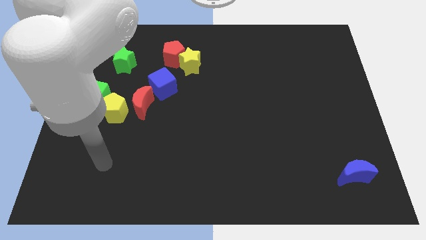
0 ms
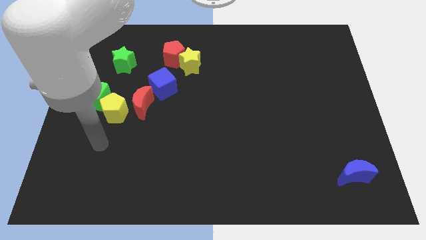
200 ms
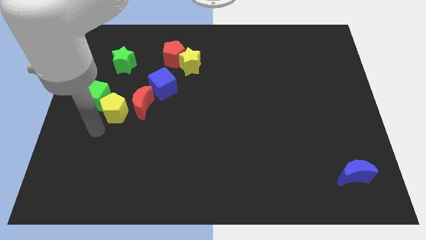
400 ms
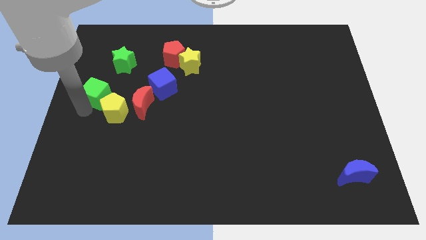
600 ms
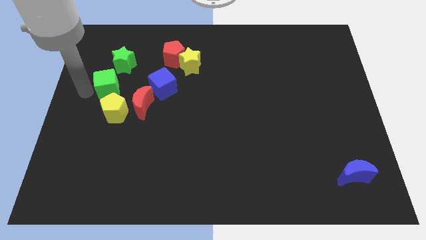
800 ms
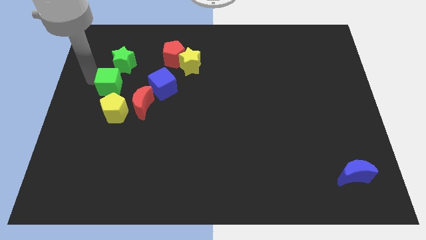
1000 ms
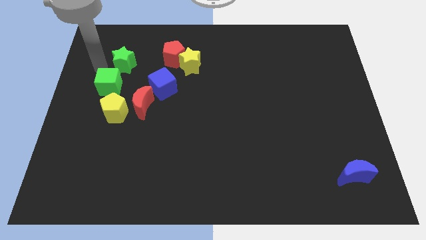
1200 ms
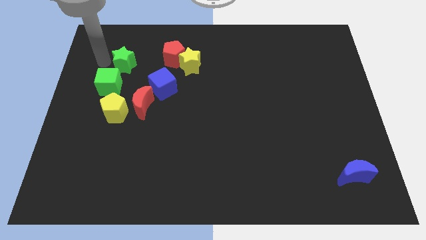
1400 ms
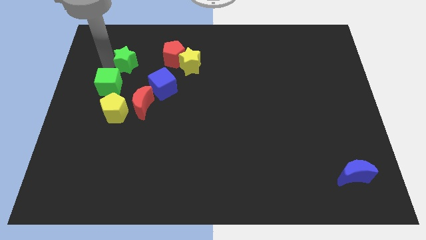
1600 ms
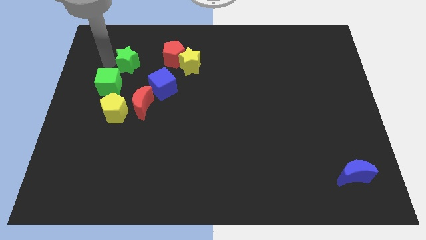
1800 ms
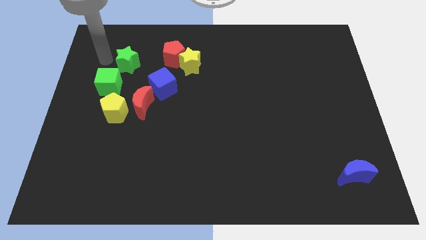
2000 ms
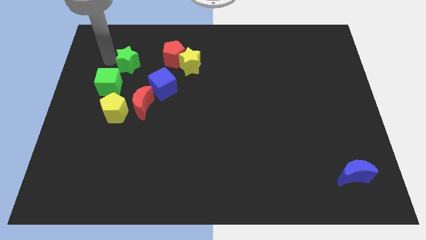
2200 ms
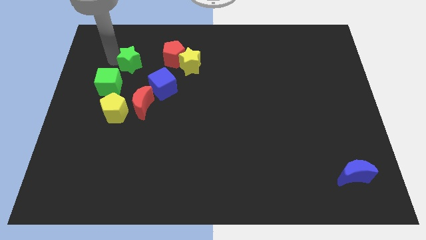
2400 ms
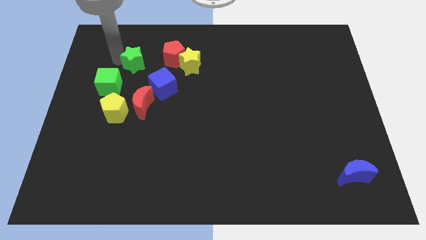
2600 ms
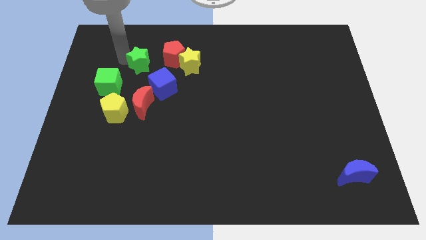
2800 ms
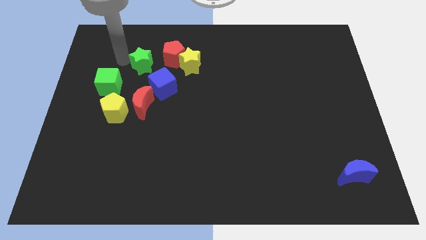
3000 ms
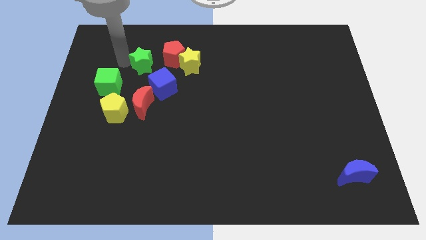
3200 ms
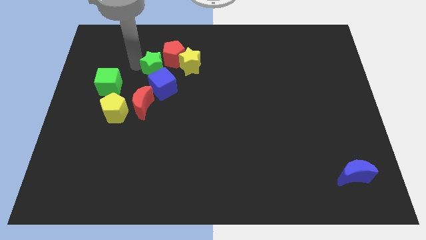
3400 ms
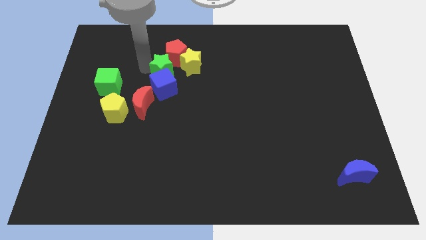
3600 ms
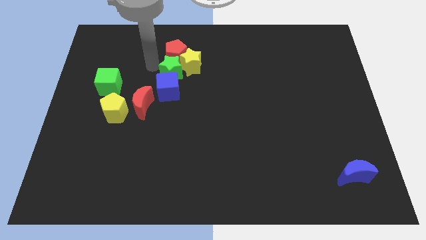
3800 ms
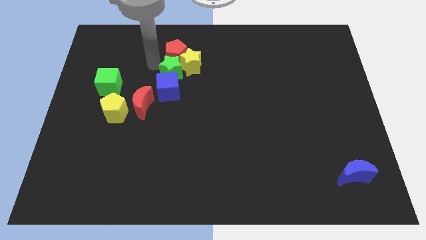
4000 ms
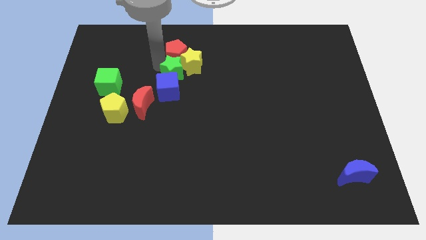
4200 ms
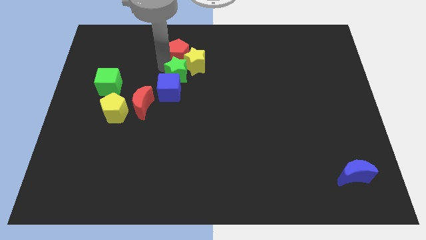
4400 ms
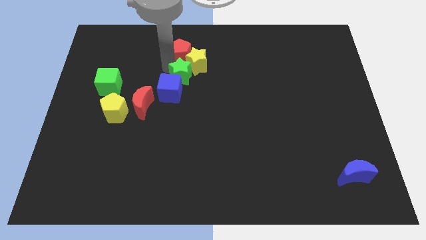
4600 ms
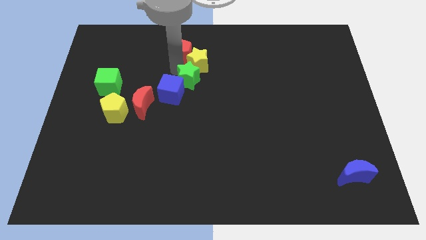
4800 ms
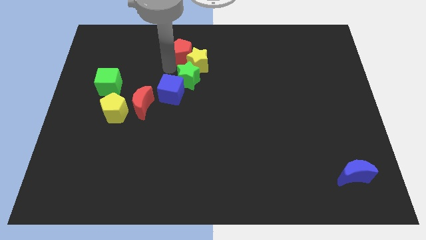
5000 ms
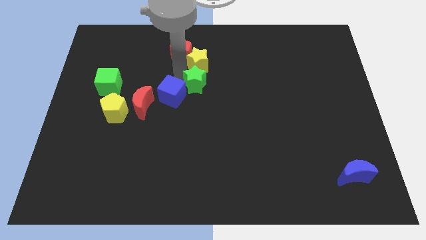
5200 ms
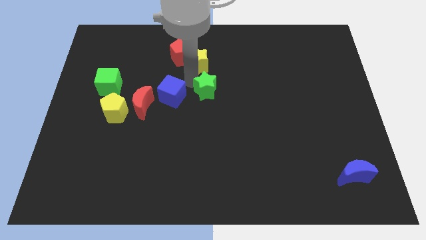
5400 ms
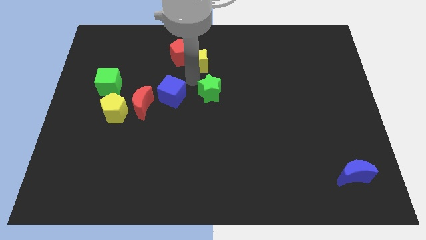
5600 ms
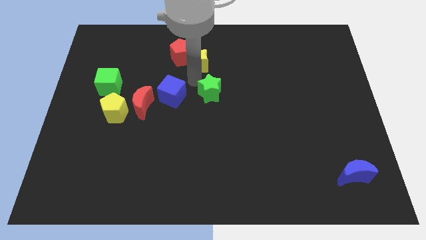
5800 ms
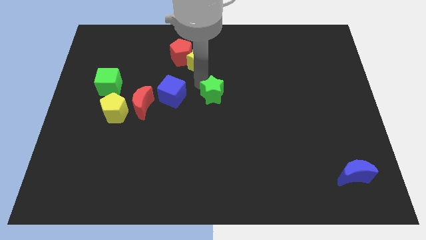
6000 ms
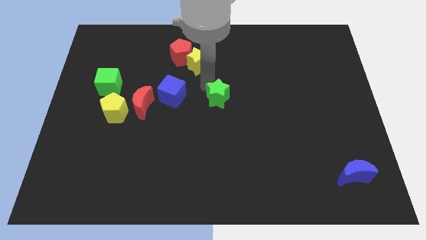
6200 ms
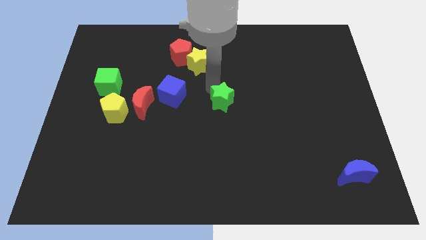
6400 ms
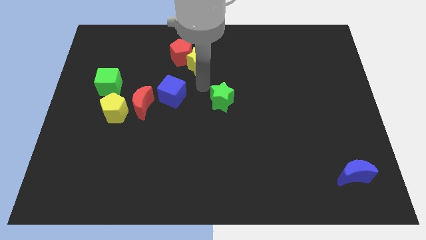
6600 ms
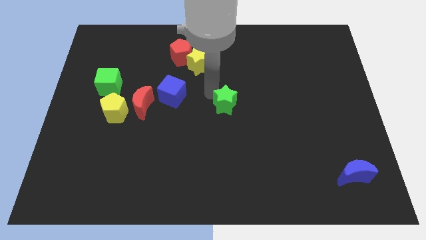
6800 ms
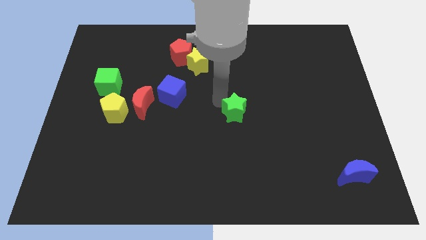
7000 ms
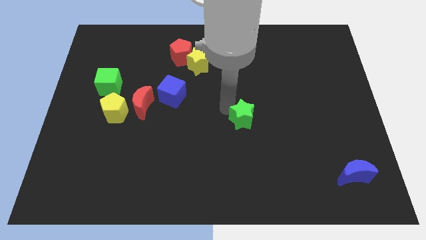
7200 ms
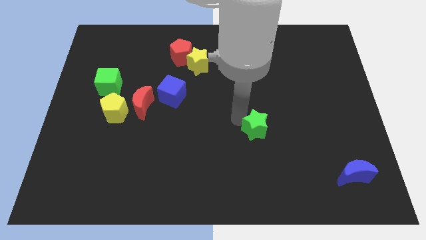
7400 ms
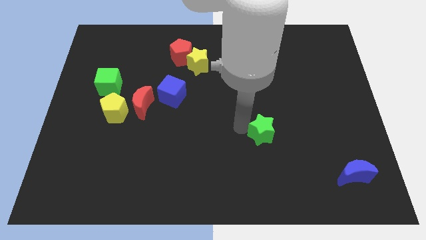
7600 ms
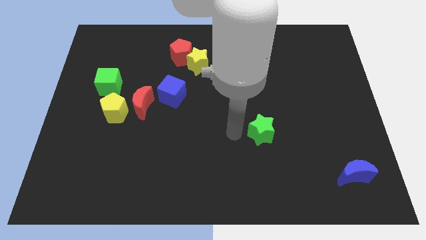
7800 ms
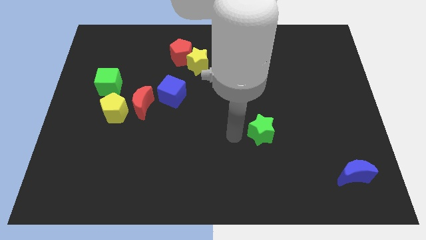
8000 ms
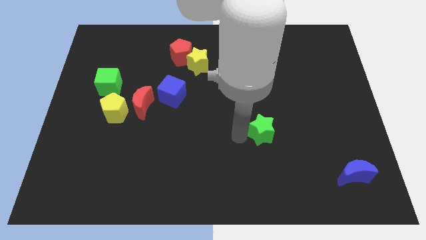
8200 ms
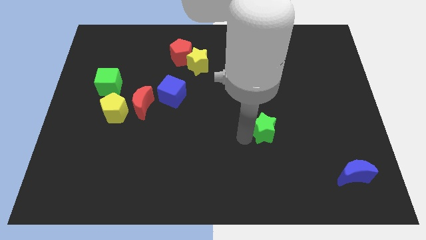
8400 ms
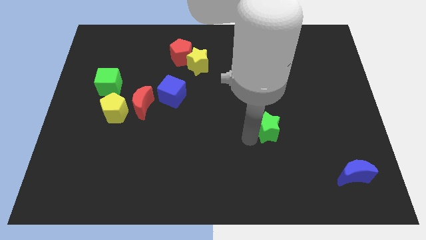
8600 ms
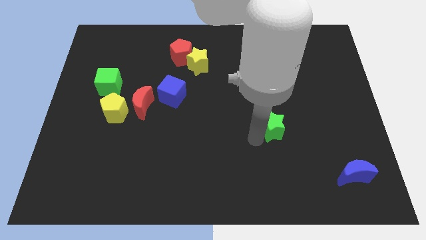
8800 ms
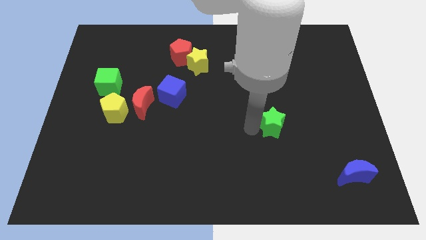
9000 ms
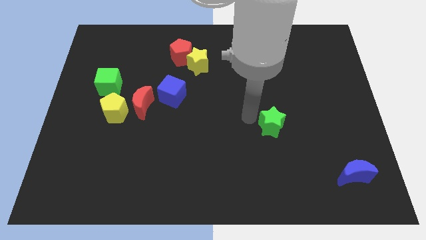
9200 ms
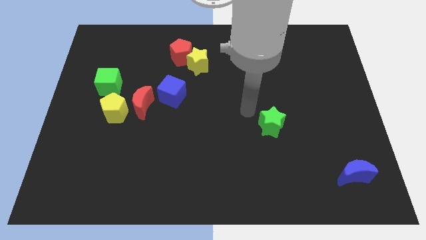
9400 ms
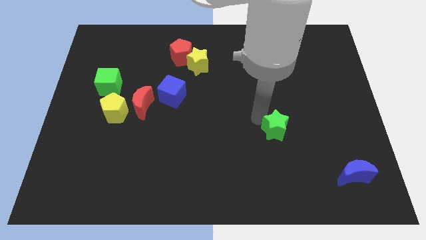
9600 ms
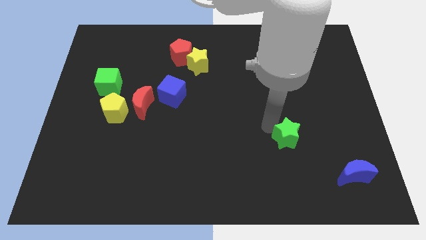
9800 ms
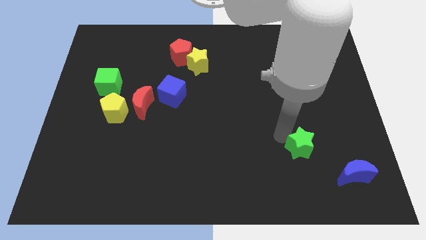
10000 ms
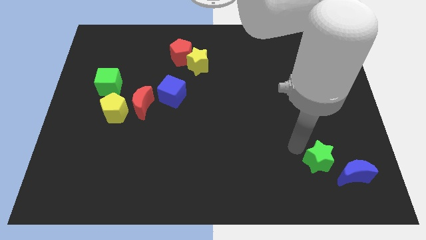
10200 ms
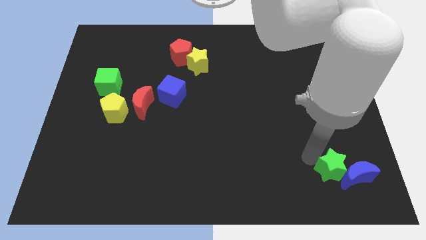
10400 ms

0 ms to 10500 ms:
put the green star close to the blue moon

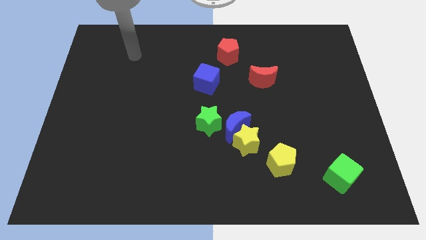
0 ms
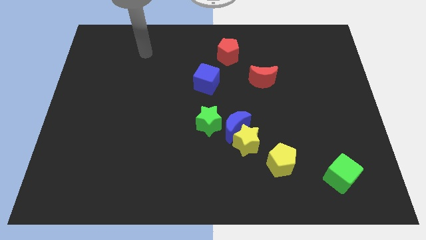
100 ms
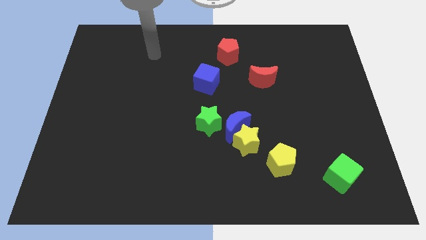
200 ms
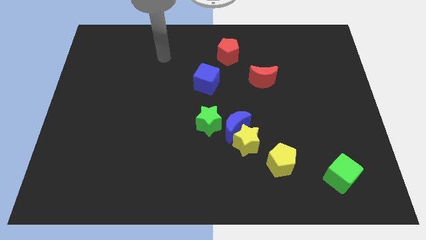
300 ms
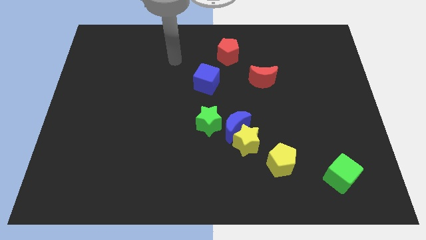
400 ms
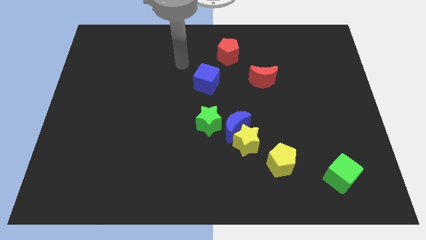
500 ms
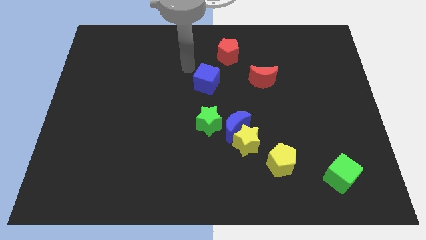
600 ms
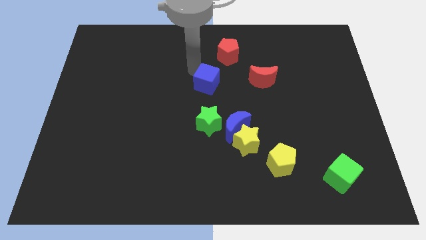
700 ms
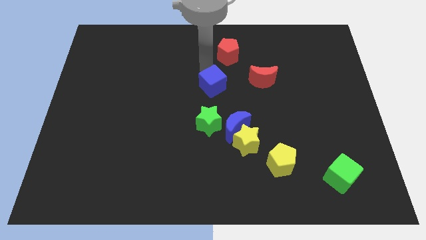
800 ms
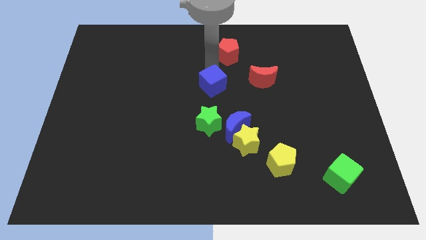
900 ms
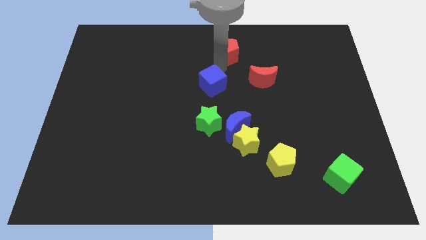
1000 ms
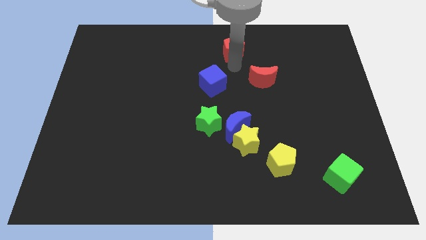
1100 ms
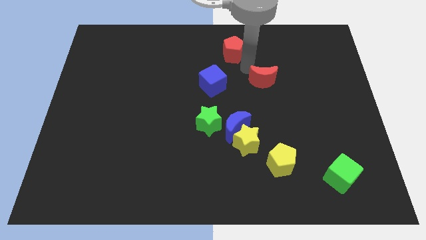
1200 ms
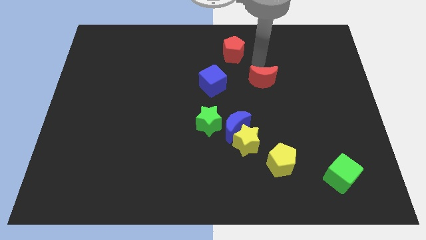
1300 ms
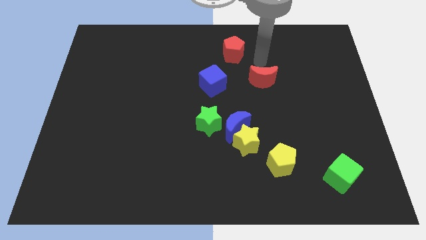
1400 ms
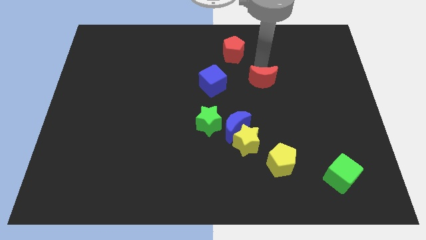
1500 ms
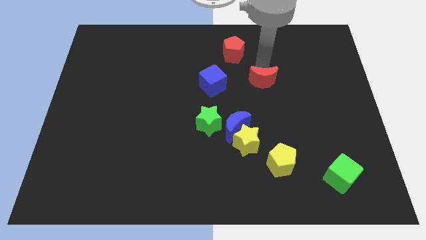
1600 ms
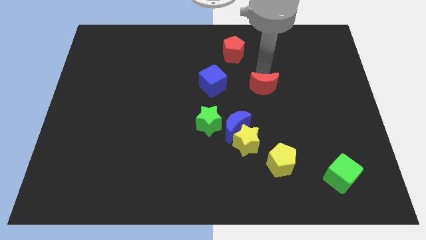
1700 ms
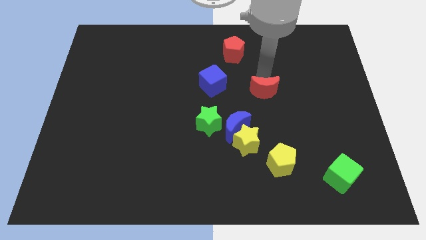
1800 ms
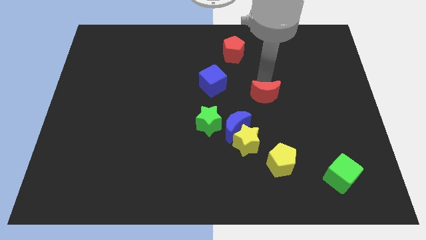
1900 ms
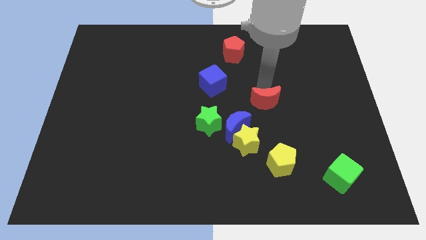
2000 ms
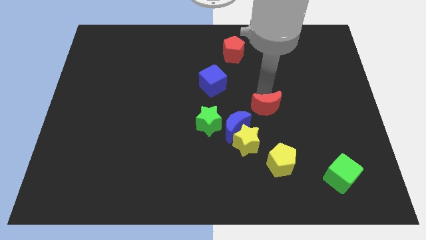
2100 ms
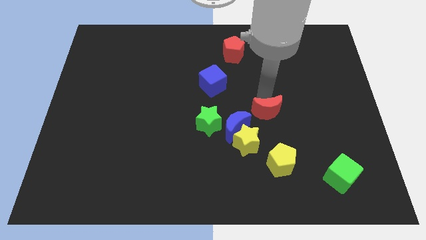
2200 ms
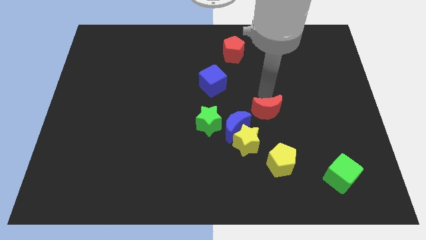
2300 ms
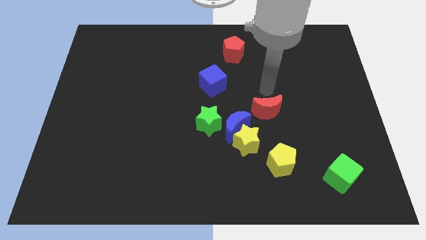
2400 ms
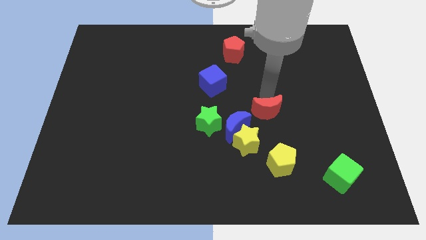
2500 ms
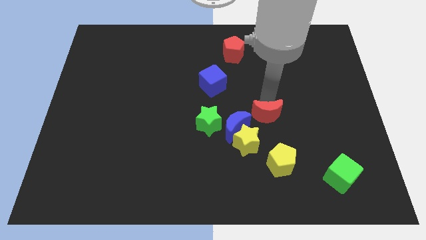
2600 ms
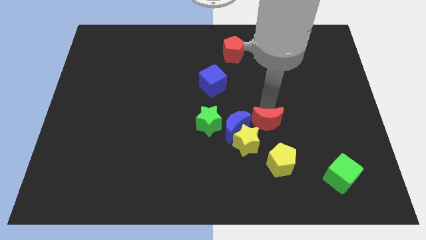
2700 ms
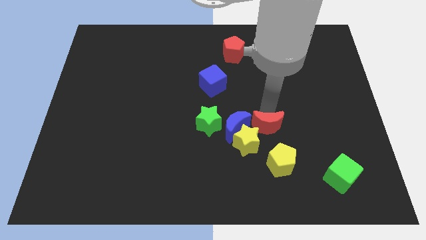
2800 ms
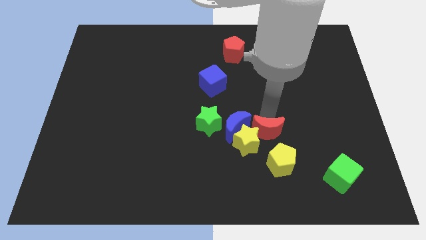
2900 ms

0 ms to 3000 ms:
move the red moon close to the yellow star

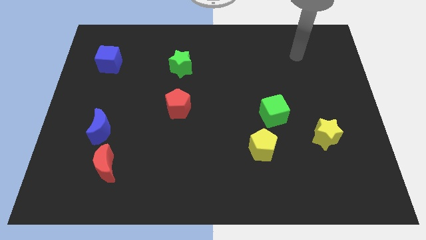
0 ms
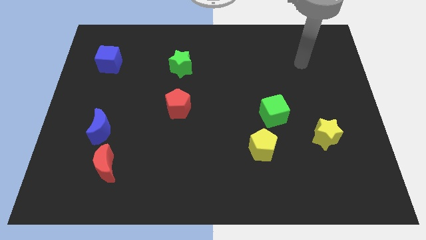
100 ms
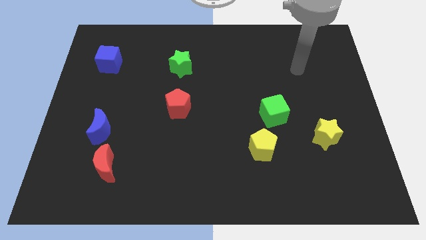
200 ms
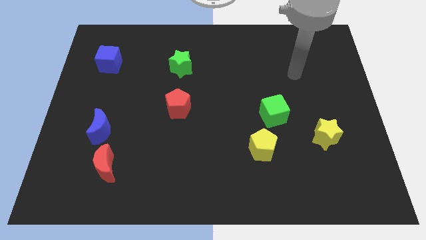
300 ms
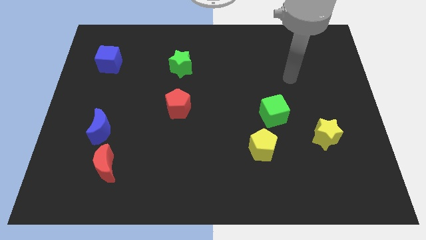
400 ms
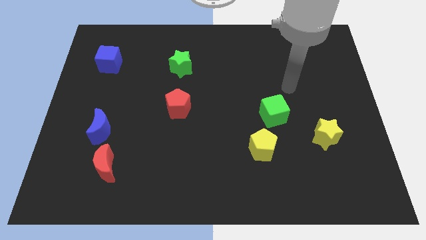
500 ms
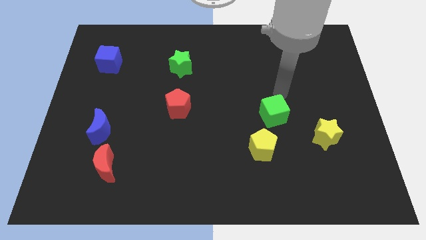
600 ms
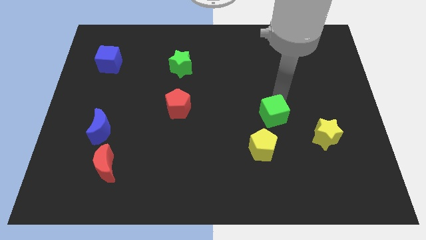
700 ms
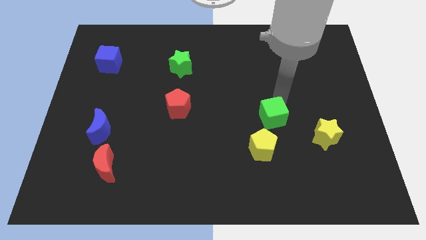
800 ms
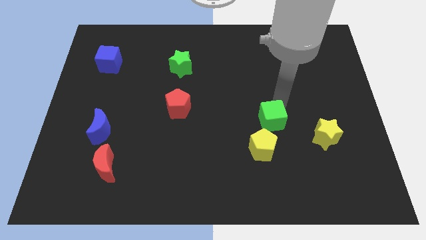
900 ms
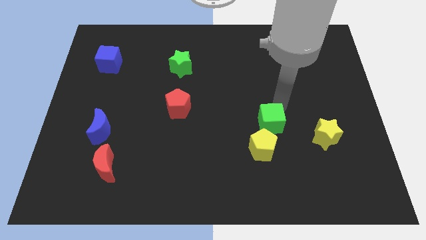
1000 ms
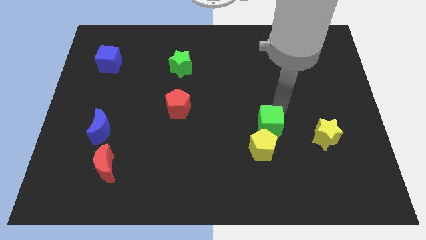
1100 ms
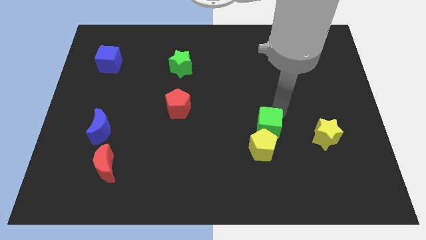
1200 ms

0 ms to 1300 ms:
move the green cube next to the yellow pentagon
